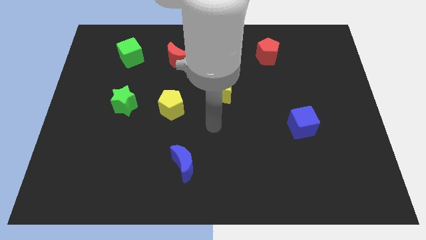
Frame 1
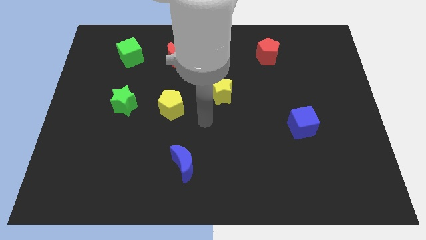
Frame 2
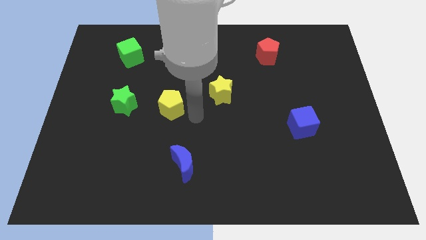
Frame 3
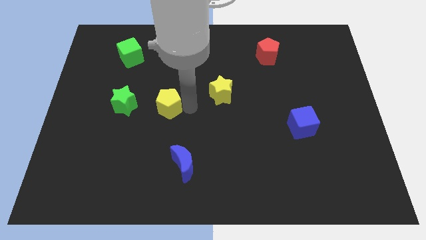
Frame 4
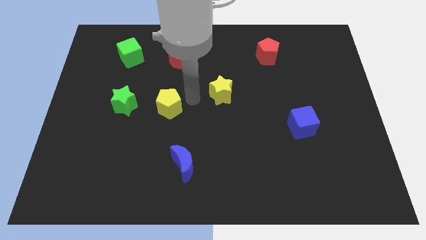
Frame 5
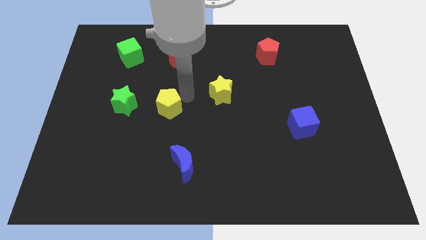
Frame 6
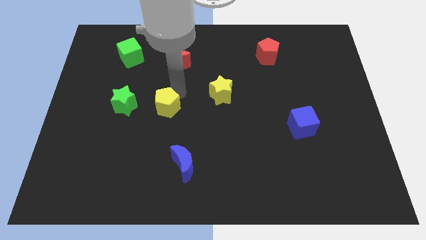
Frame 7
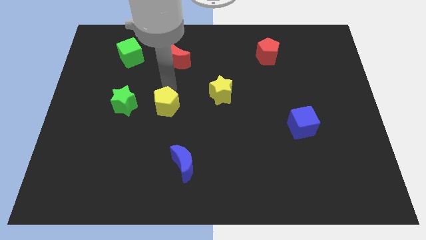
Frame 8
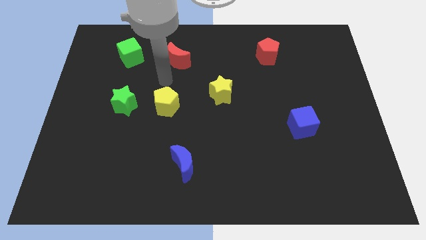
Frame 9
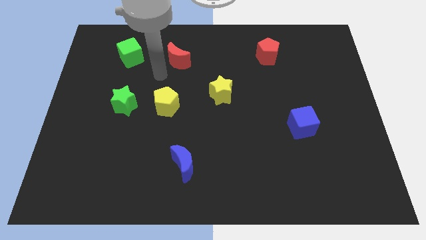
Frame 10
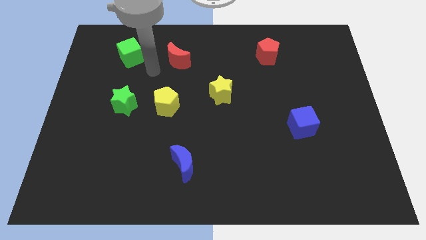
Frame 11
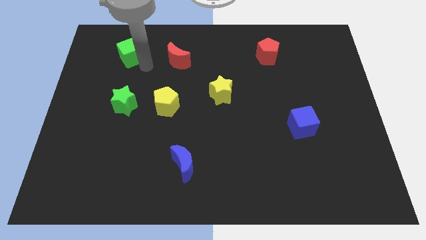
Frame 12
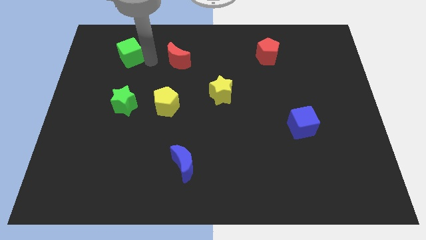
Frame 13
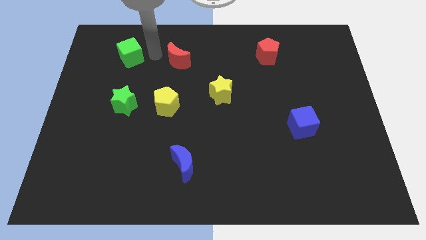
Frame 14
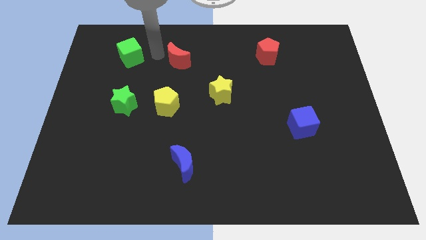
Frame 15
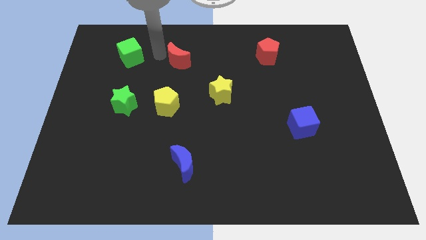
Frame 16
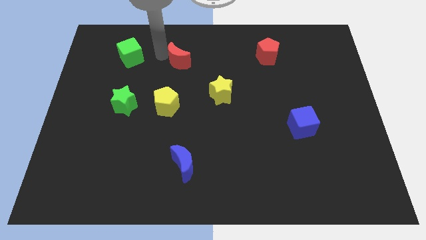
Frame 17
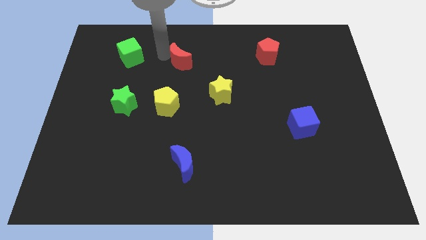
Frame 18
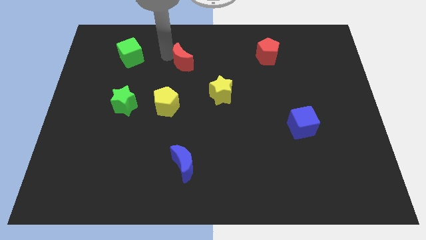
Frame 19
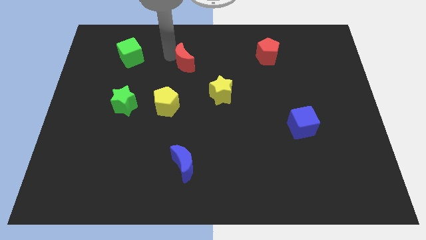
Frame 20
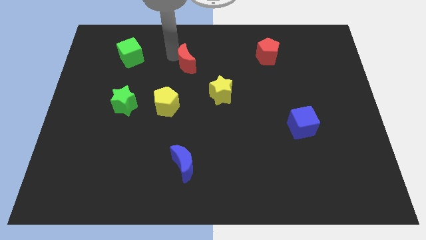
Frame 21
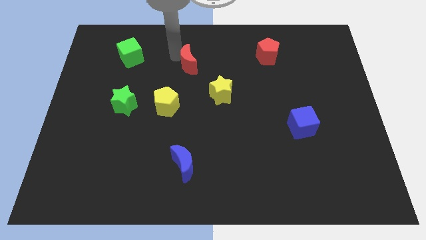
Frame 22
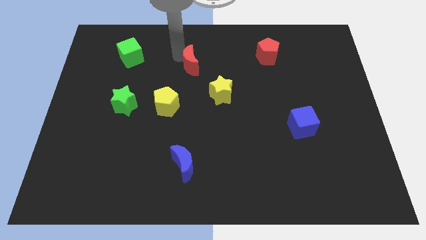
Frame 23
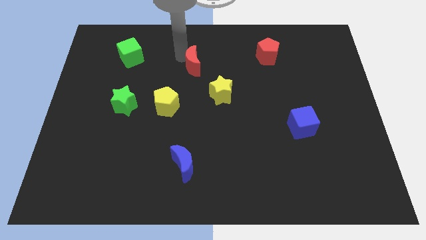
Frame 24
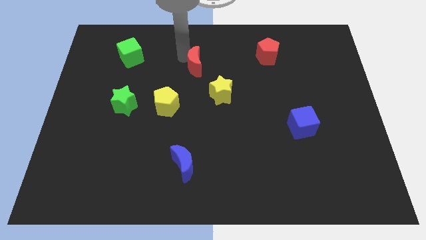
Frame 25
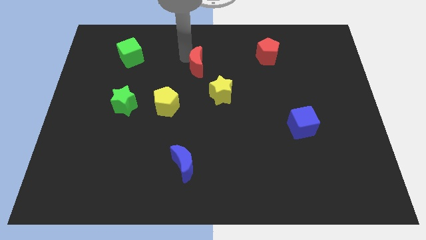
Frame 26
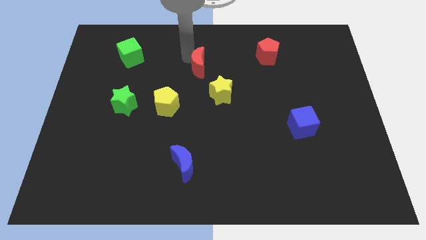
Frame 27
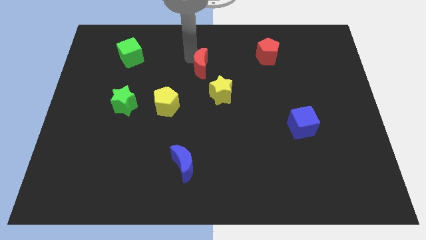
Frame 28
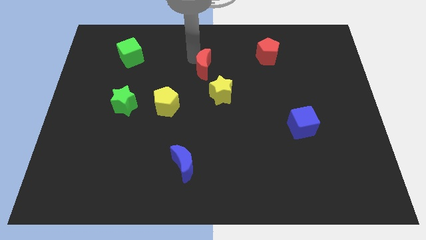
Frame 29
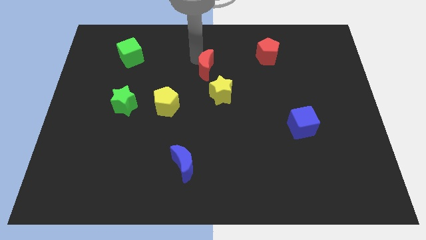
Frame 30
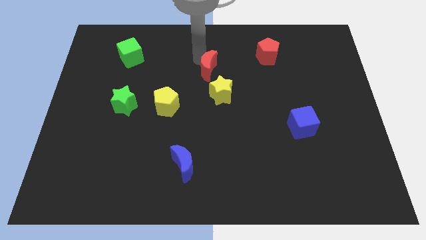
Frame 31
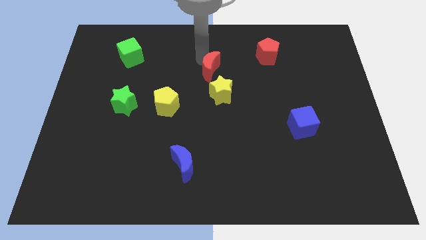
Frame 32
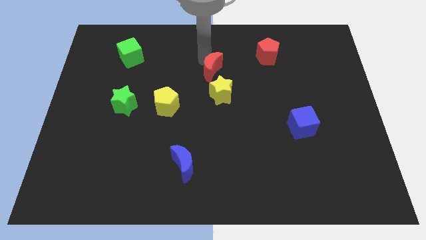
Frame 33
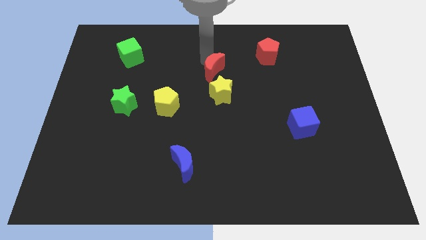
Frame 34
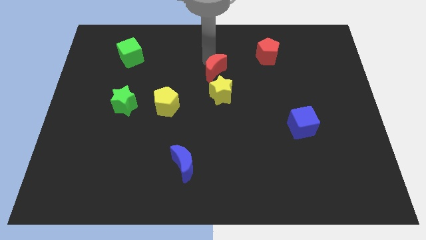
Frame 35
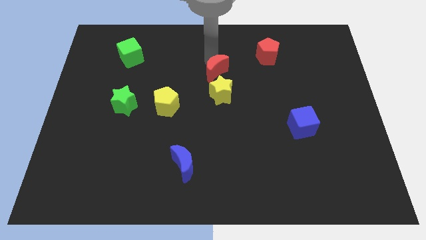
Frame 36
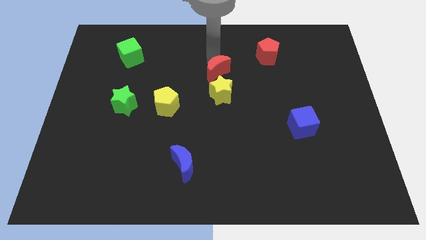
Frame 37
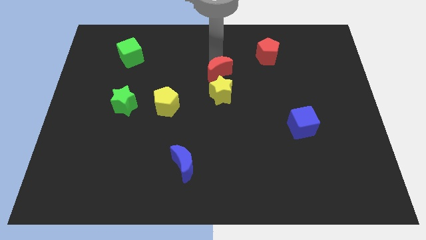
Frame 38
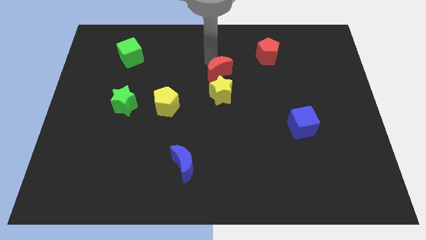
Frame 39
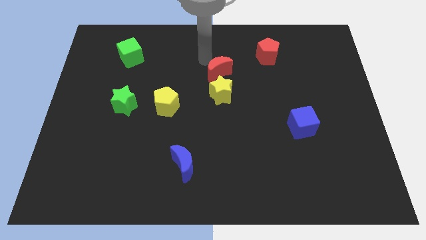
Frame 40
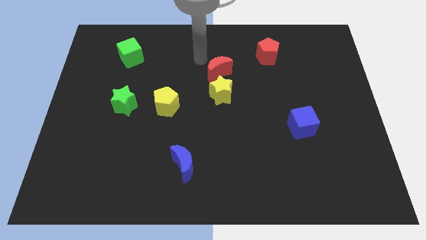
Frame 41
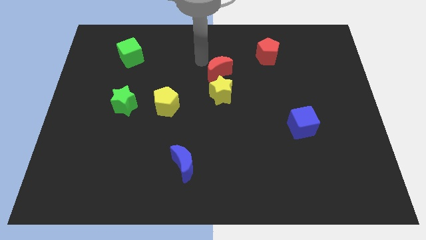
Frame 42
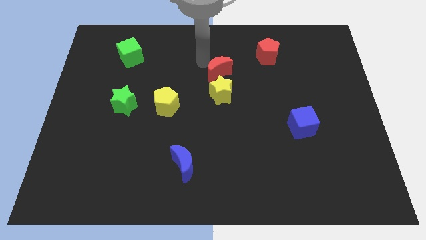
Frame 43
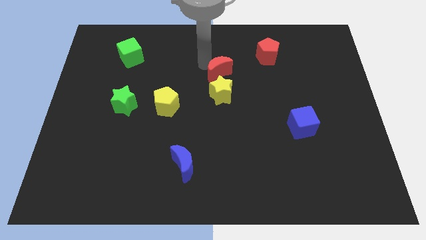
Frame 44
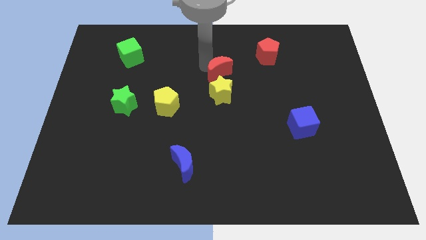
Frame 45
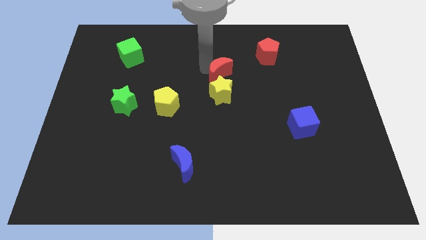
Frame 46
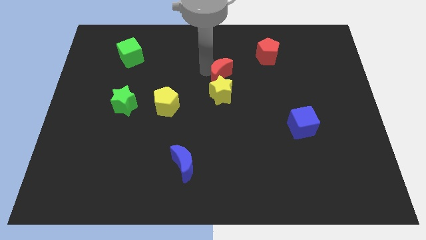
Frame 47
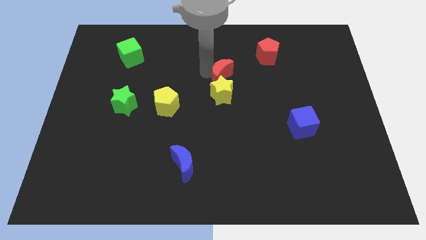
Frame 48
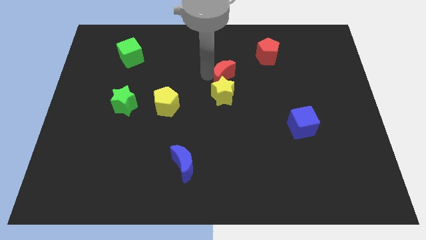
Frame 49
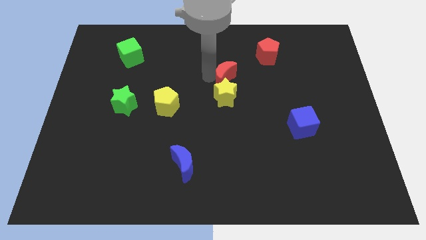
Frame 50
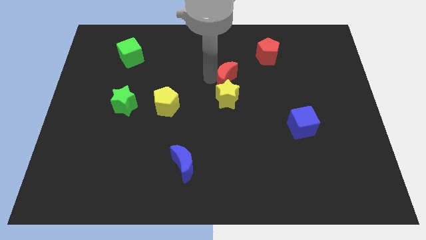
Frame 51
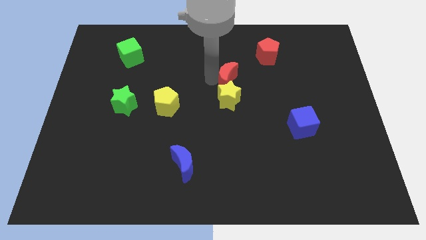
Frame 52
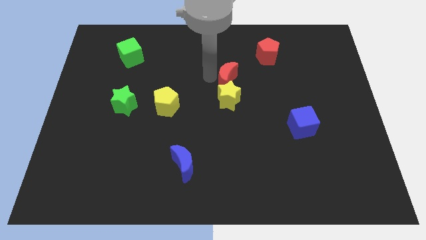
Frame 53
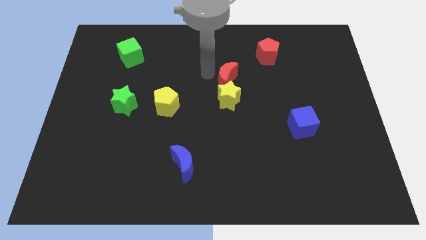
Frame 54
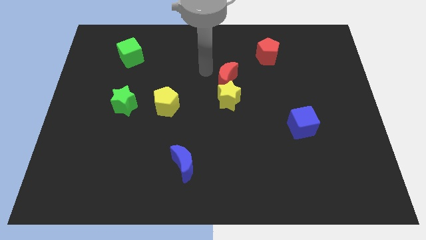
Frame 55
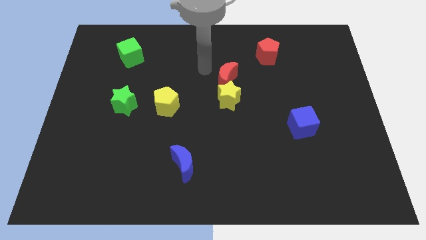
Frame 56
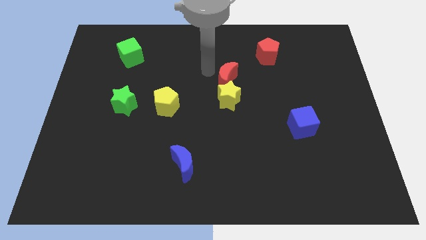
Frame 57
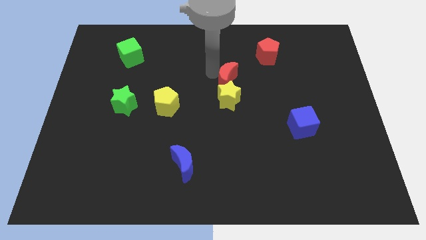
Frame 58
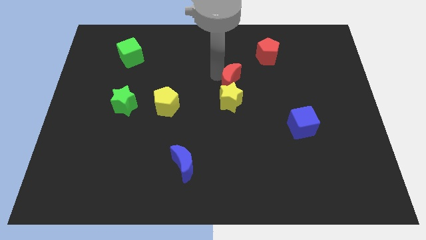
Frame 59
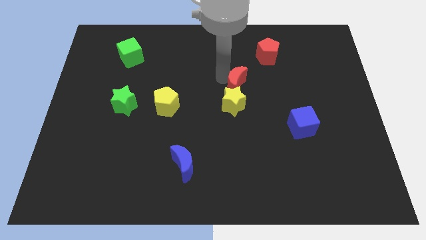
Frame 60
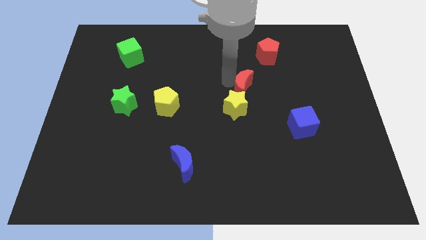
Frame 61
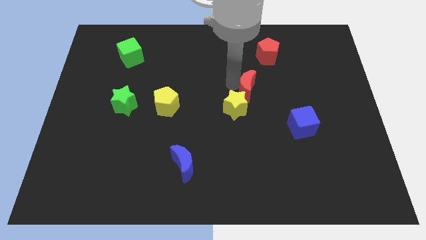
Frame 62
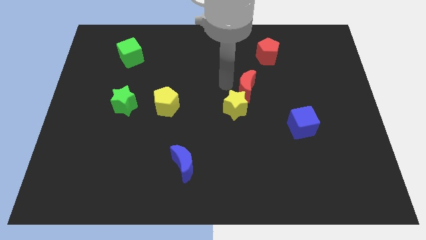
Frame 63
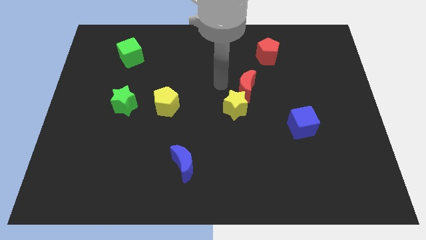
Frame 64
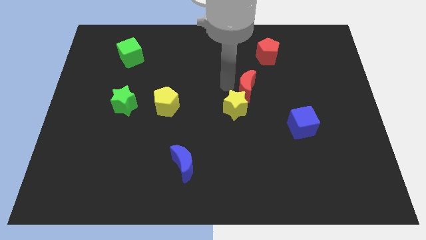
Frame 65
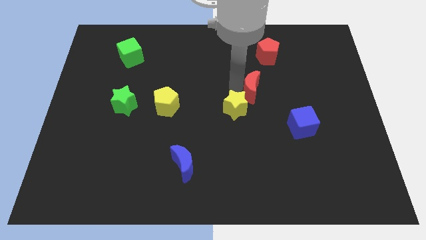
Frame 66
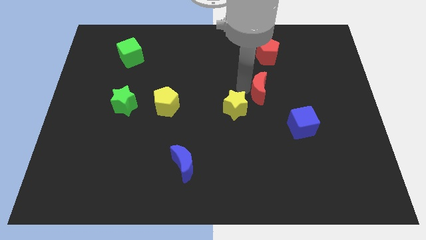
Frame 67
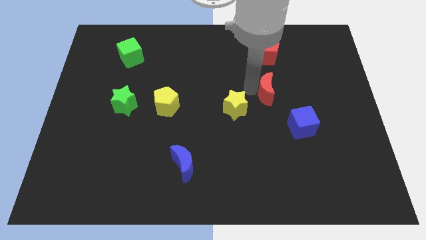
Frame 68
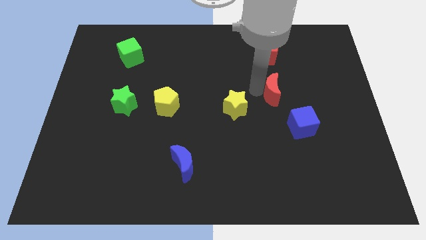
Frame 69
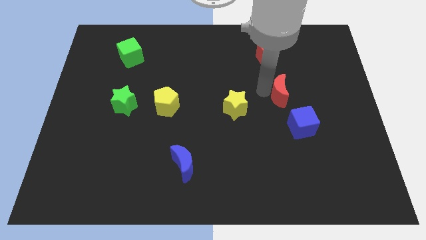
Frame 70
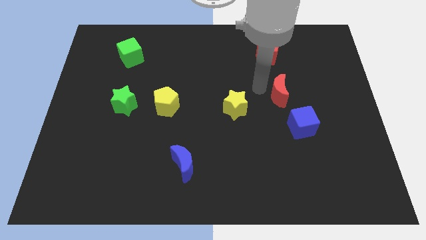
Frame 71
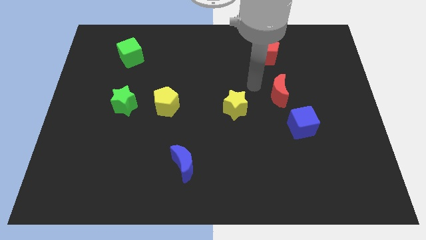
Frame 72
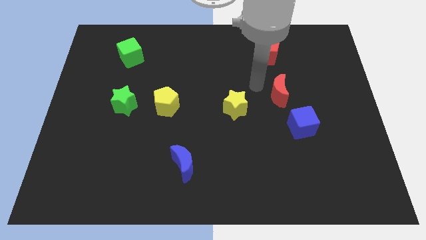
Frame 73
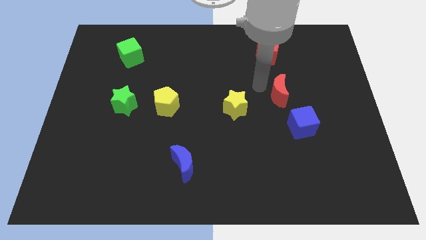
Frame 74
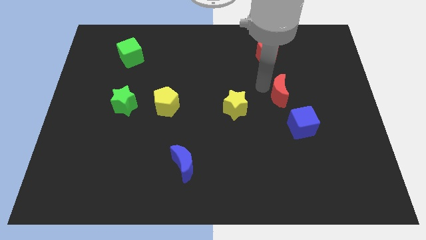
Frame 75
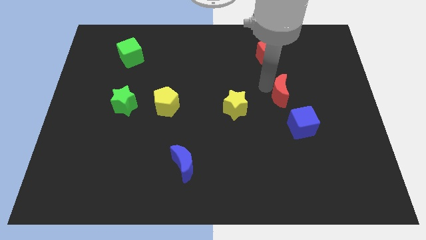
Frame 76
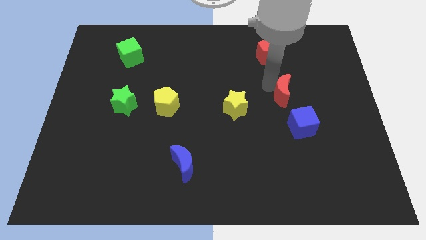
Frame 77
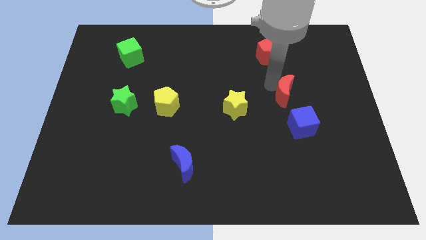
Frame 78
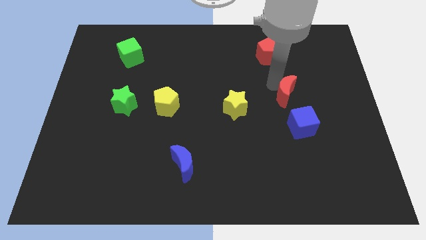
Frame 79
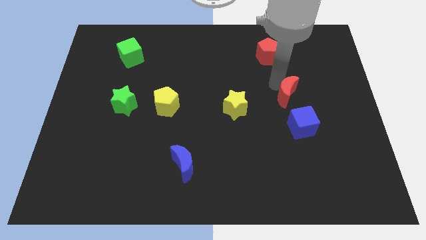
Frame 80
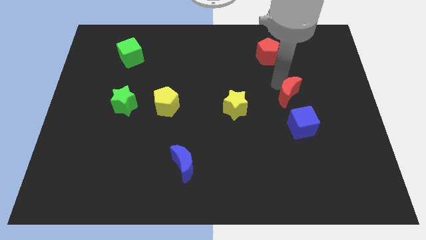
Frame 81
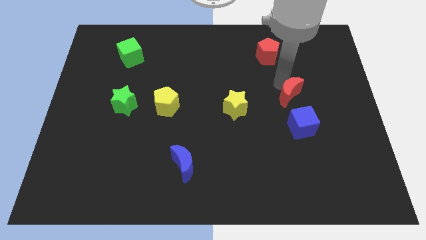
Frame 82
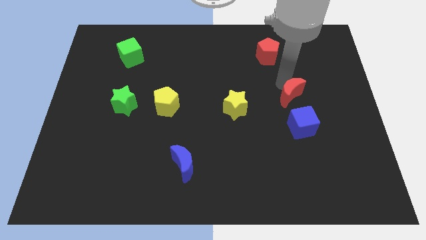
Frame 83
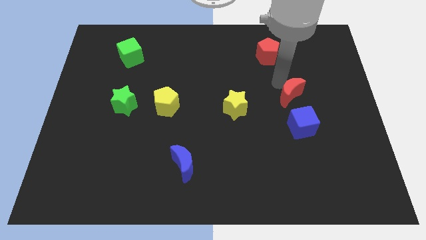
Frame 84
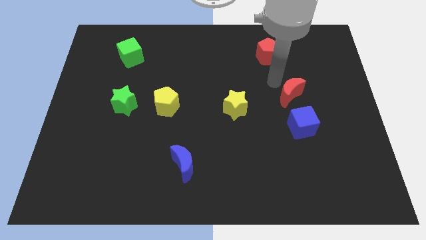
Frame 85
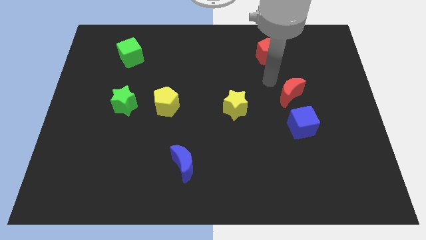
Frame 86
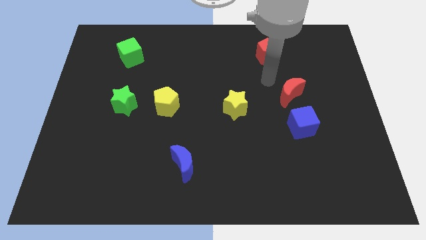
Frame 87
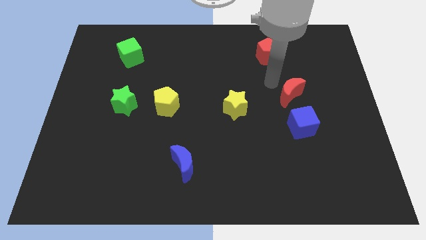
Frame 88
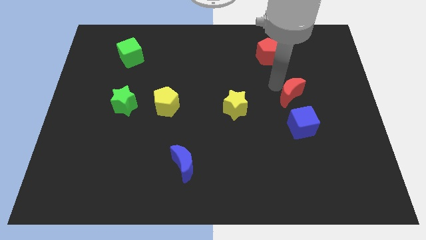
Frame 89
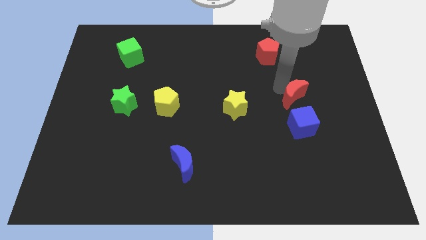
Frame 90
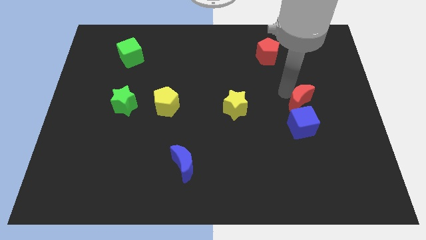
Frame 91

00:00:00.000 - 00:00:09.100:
push the red moon to the top right side of the blue cube
